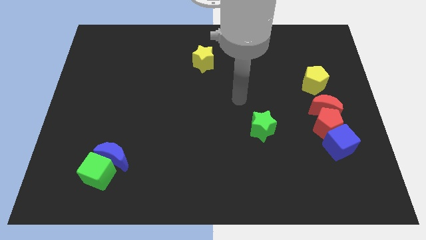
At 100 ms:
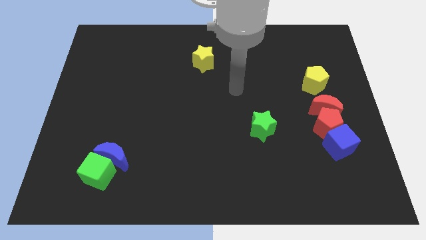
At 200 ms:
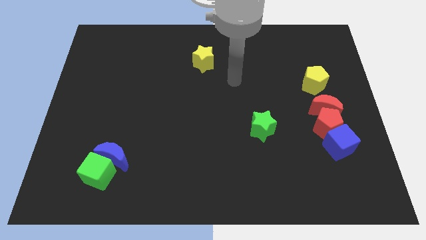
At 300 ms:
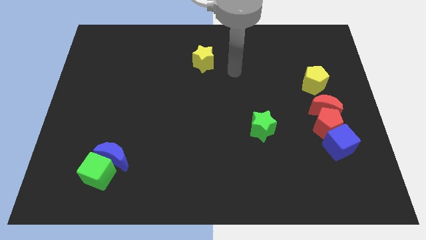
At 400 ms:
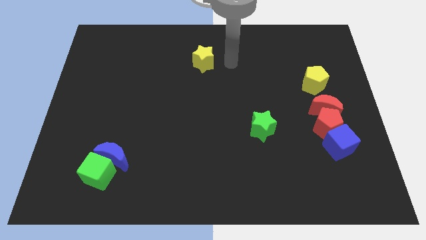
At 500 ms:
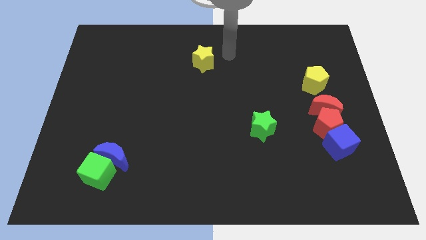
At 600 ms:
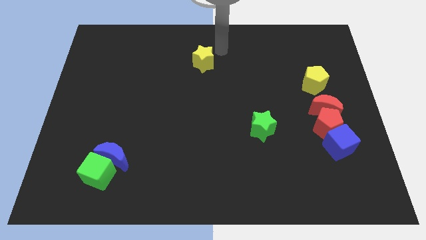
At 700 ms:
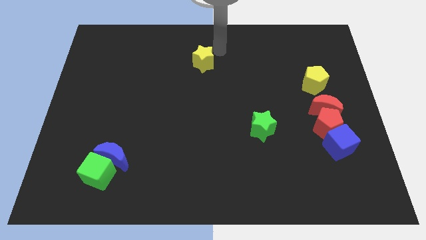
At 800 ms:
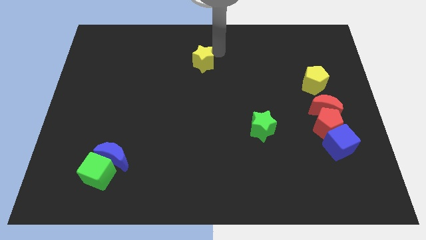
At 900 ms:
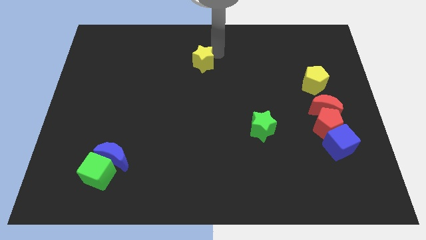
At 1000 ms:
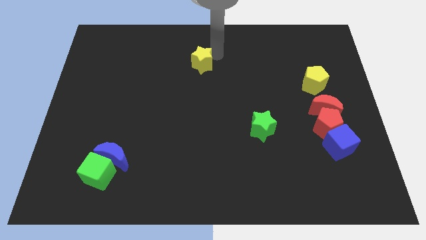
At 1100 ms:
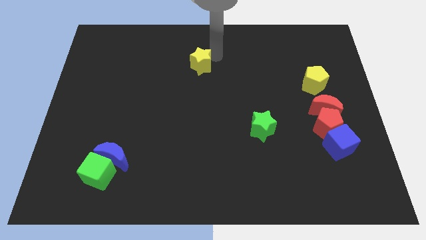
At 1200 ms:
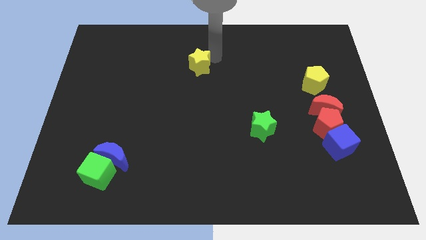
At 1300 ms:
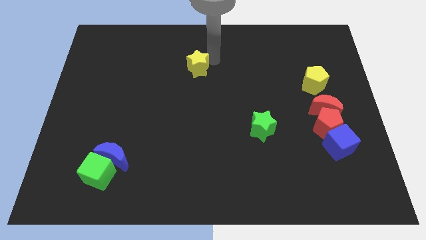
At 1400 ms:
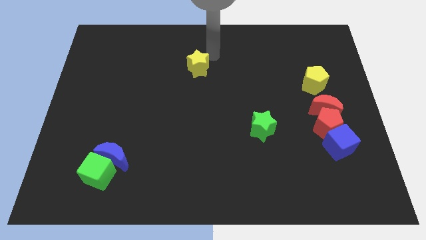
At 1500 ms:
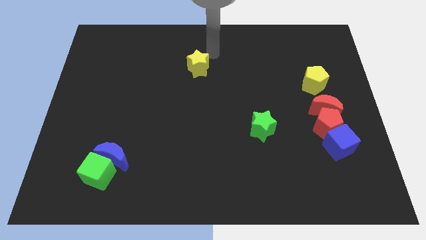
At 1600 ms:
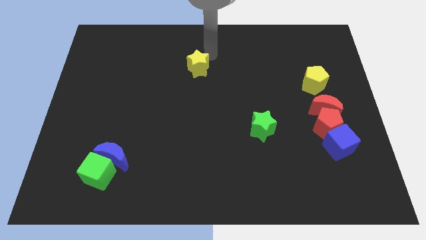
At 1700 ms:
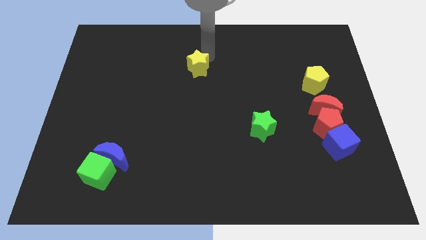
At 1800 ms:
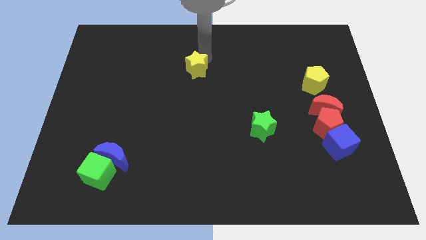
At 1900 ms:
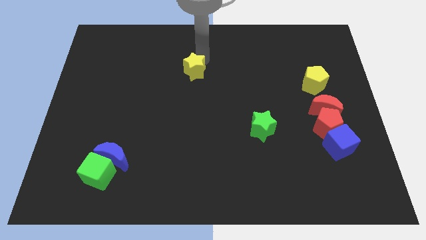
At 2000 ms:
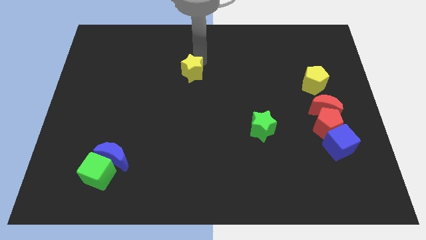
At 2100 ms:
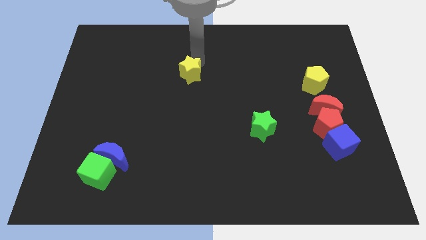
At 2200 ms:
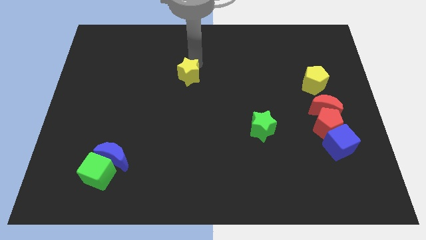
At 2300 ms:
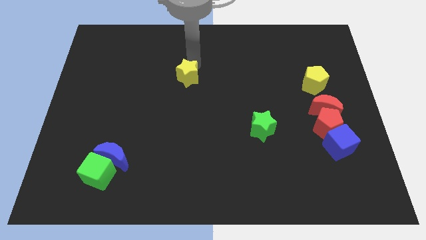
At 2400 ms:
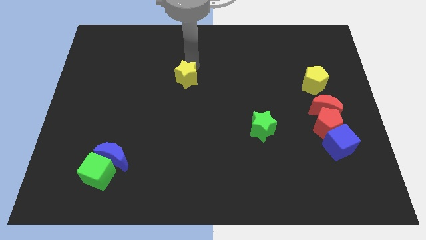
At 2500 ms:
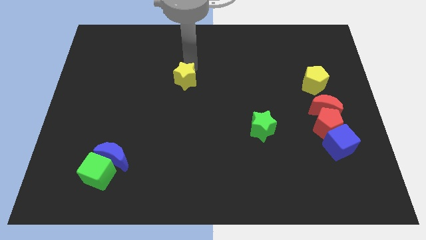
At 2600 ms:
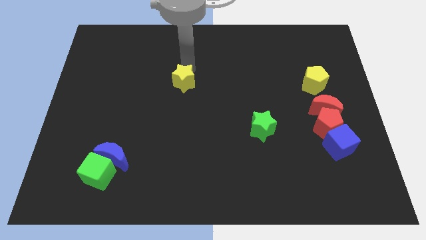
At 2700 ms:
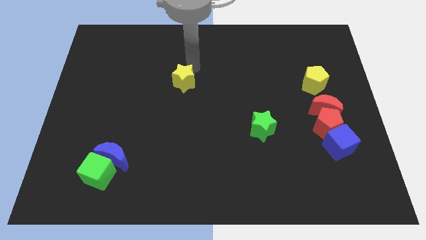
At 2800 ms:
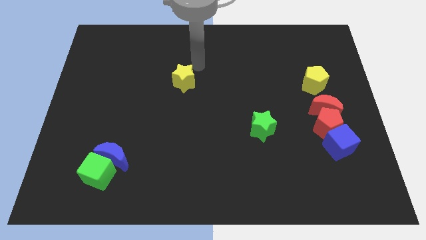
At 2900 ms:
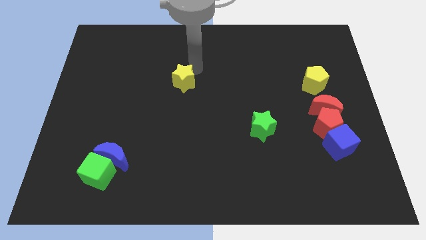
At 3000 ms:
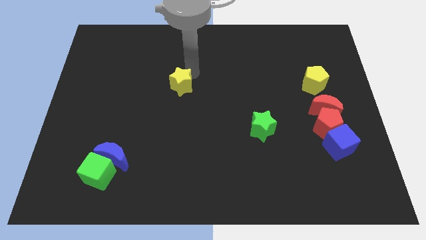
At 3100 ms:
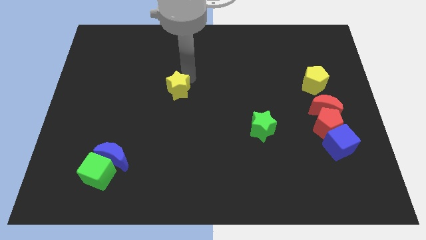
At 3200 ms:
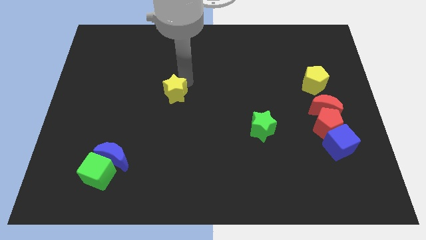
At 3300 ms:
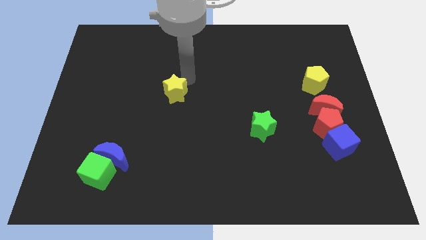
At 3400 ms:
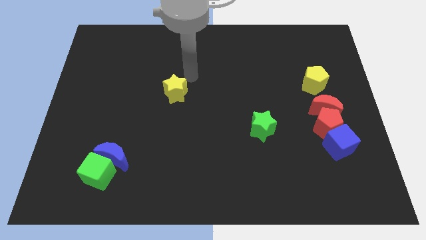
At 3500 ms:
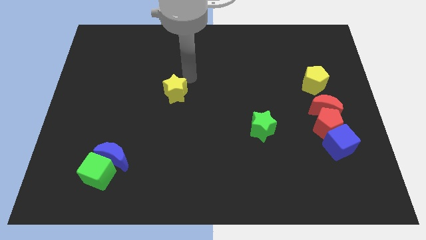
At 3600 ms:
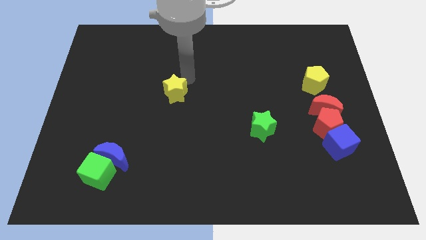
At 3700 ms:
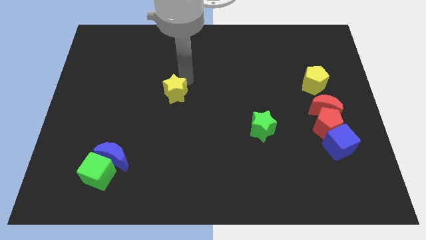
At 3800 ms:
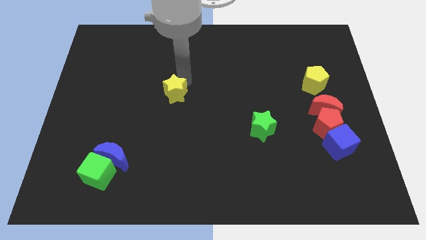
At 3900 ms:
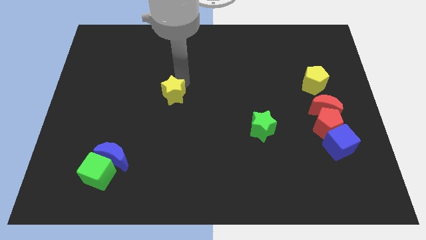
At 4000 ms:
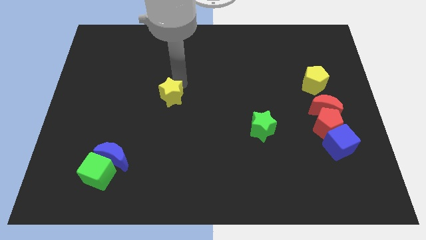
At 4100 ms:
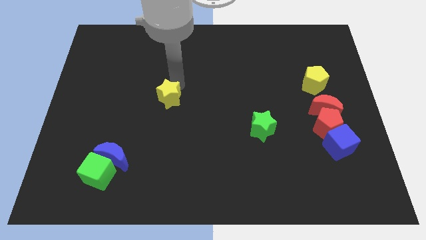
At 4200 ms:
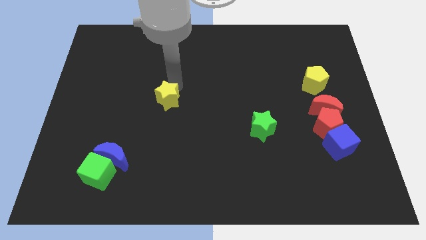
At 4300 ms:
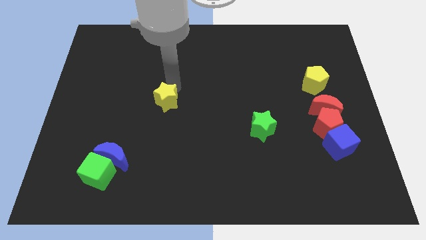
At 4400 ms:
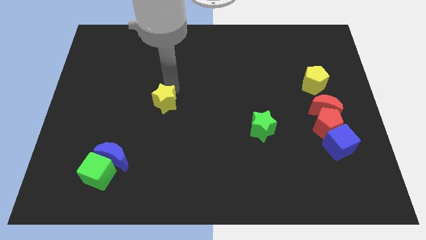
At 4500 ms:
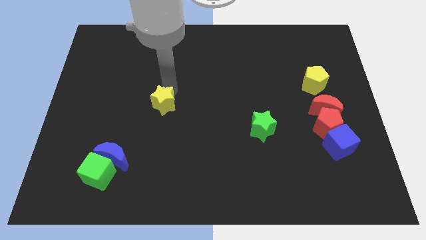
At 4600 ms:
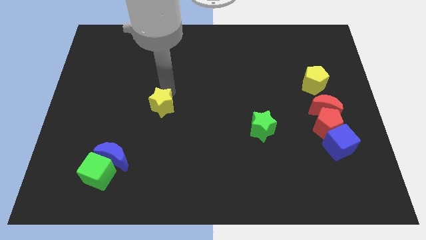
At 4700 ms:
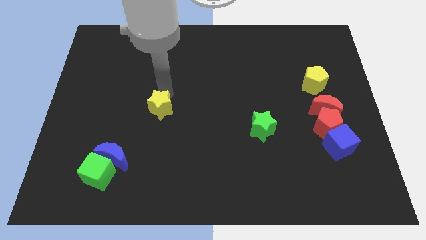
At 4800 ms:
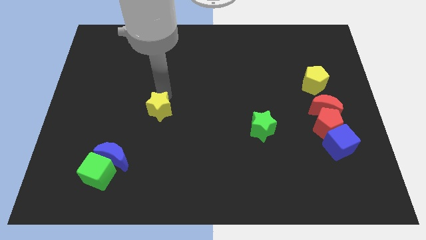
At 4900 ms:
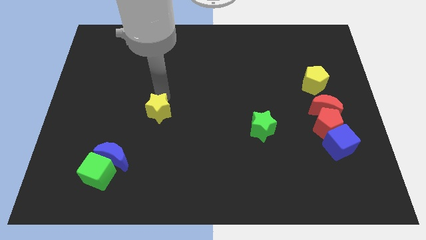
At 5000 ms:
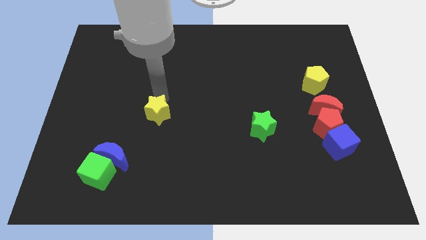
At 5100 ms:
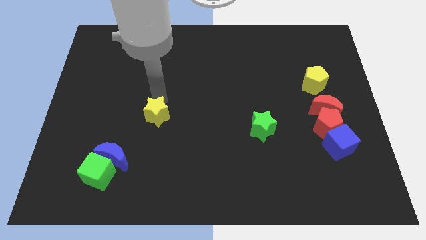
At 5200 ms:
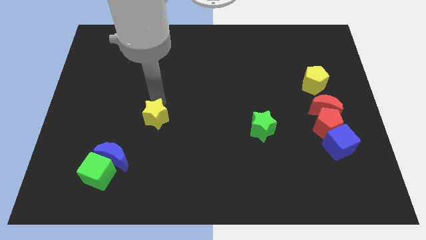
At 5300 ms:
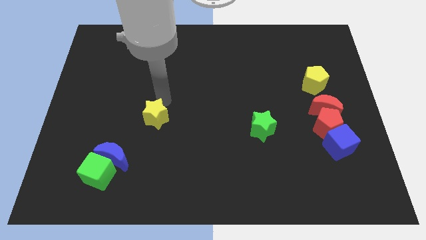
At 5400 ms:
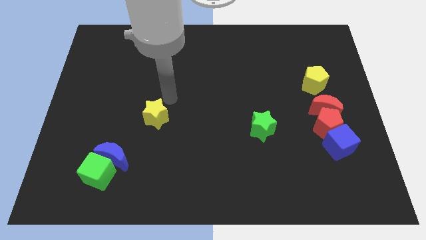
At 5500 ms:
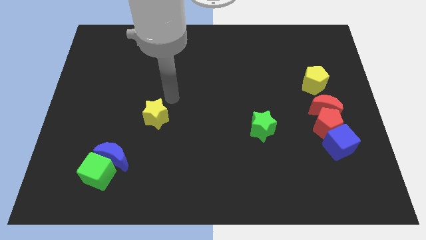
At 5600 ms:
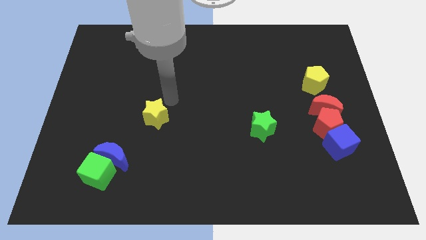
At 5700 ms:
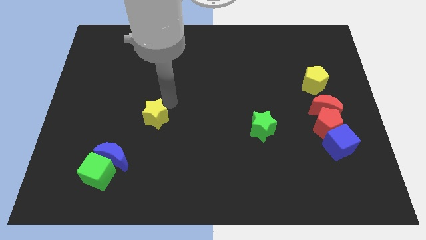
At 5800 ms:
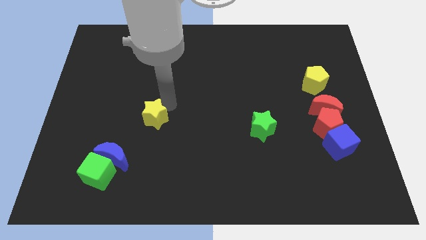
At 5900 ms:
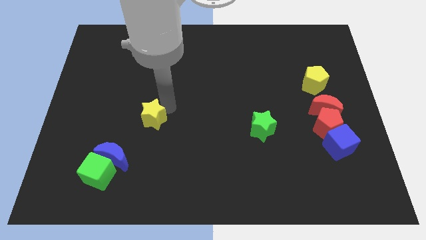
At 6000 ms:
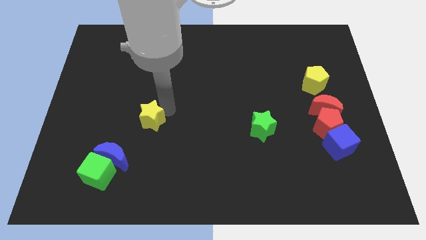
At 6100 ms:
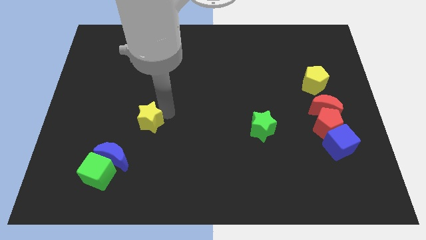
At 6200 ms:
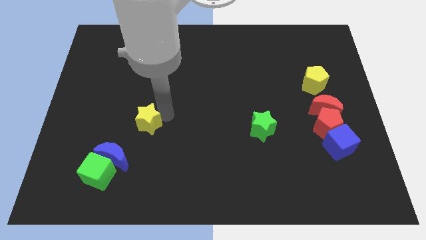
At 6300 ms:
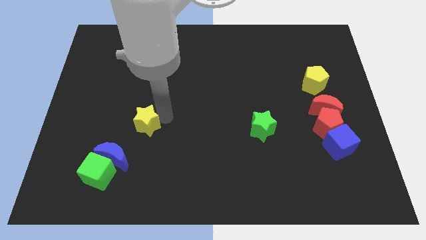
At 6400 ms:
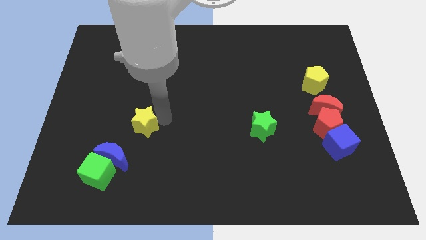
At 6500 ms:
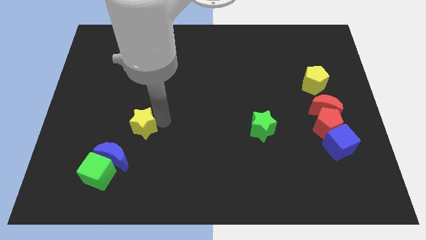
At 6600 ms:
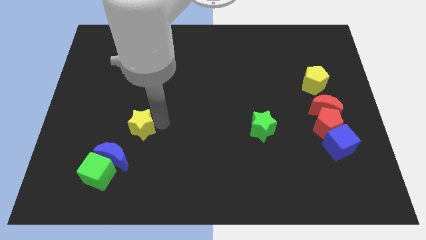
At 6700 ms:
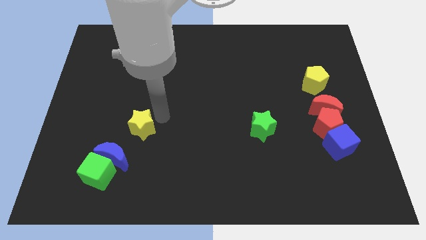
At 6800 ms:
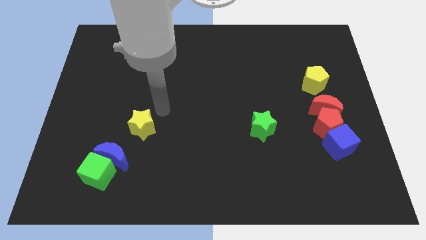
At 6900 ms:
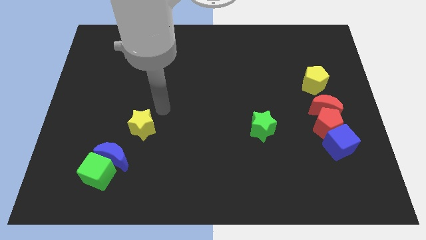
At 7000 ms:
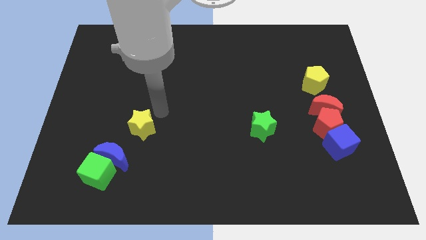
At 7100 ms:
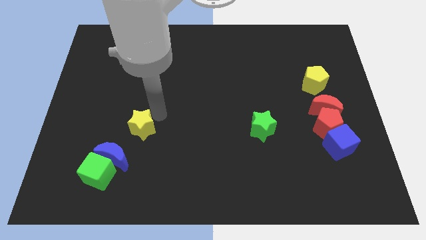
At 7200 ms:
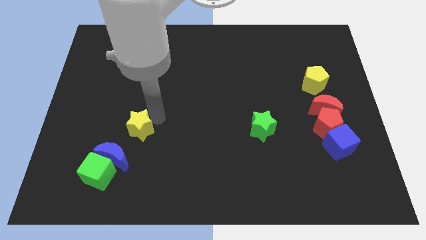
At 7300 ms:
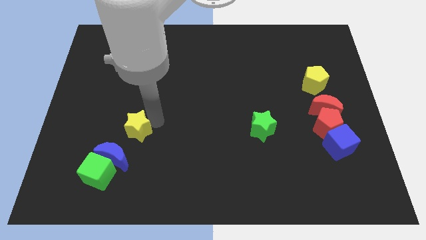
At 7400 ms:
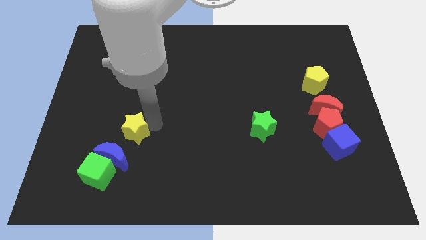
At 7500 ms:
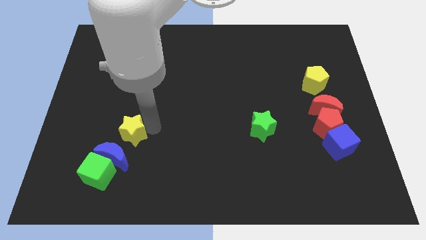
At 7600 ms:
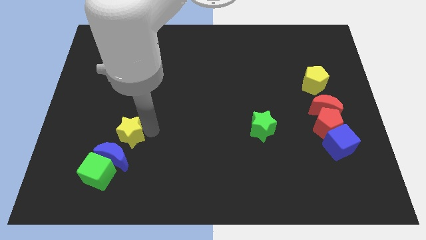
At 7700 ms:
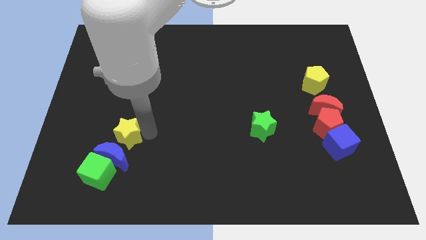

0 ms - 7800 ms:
put the yellow star towards the blue moon

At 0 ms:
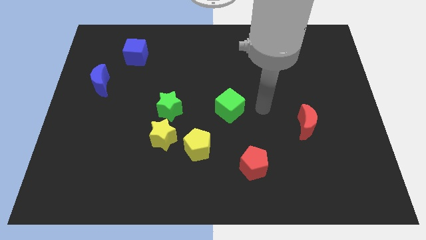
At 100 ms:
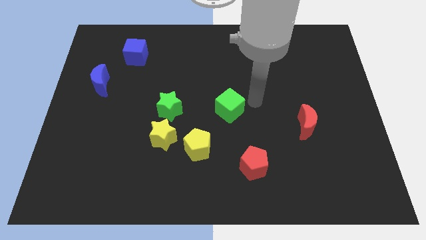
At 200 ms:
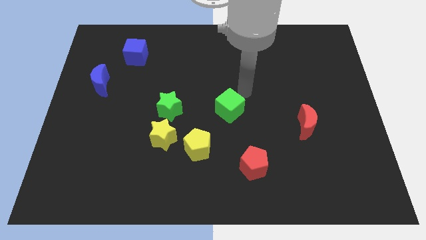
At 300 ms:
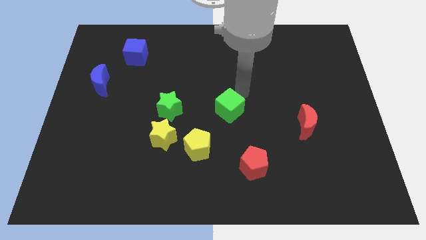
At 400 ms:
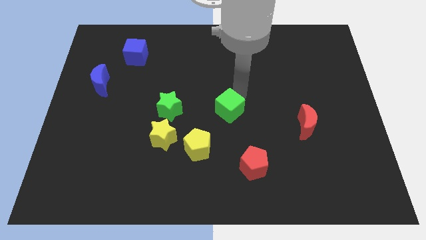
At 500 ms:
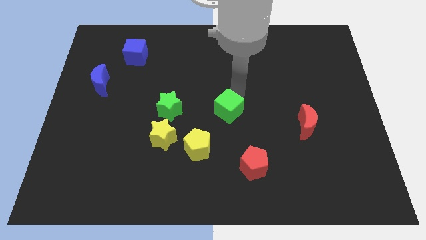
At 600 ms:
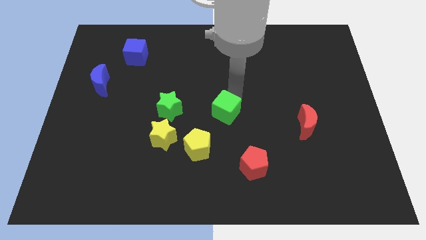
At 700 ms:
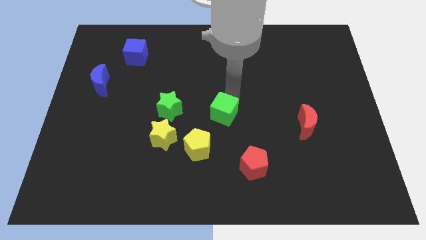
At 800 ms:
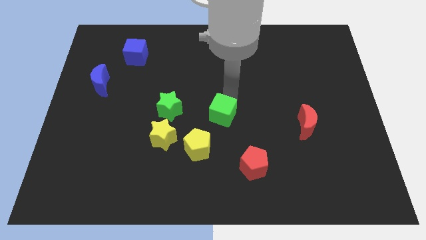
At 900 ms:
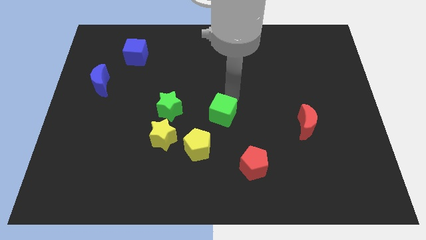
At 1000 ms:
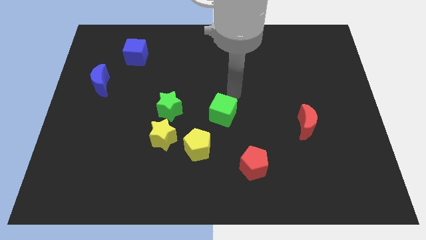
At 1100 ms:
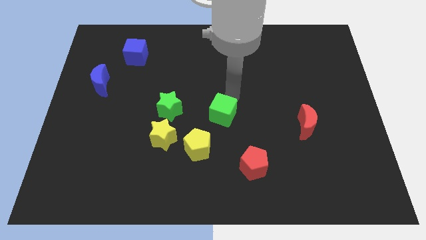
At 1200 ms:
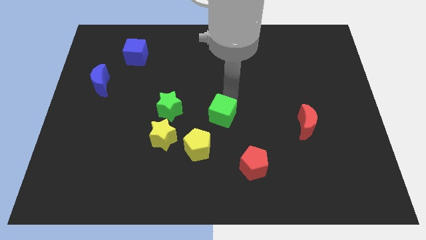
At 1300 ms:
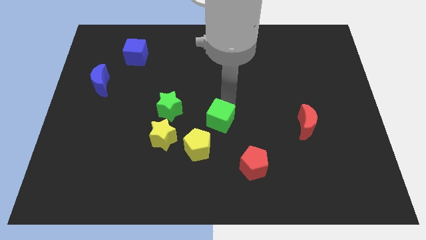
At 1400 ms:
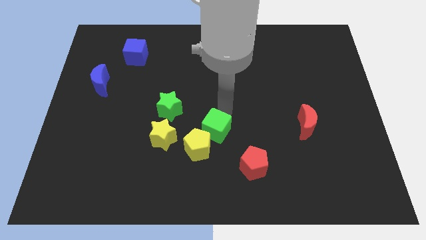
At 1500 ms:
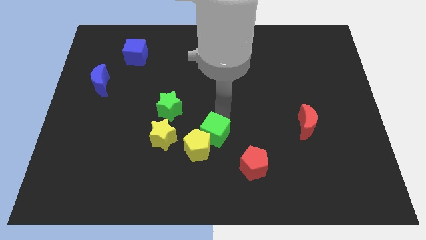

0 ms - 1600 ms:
move the green cube to the yellow pentagon
